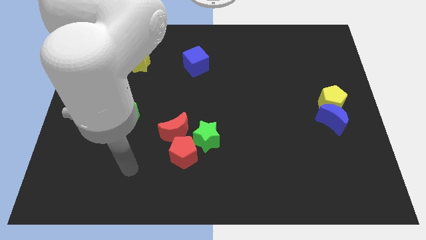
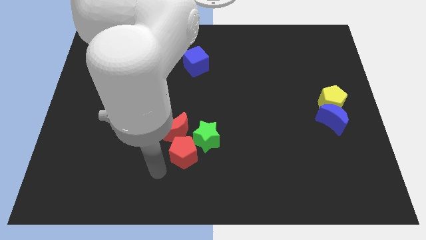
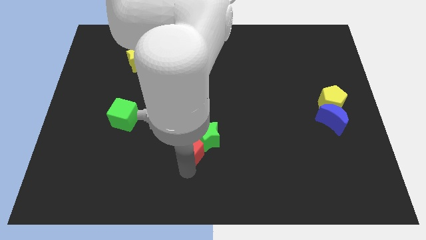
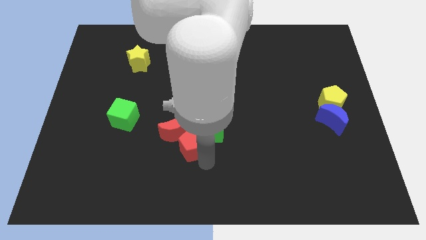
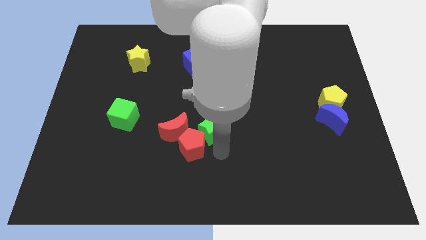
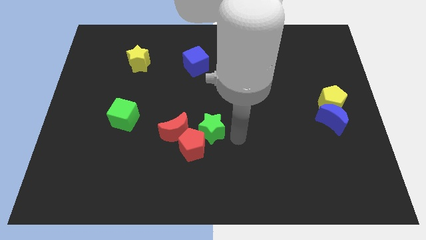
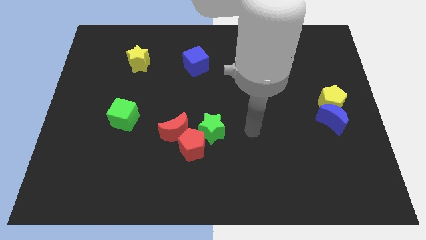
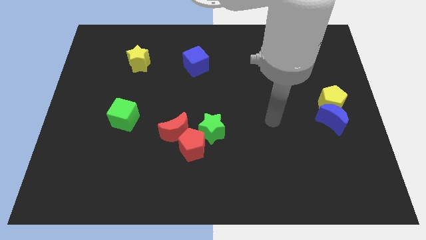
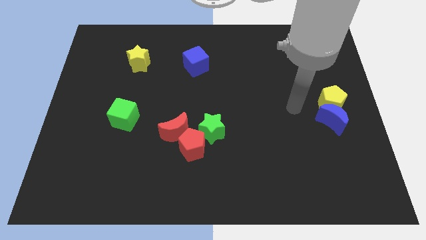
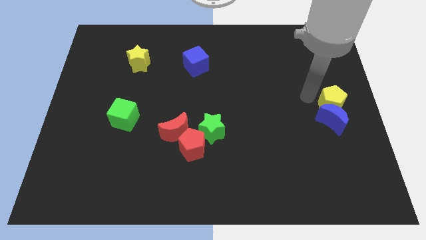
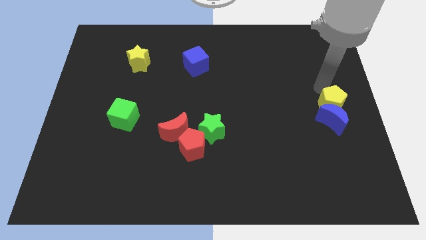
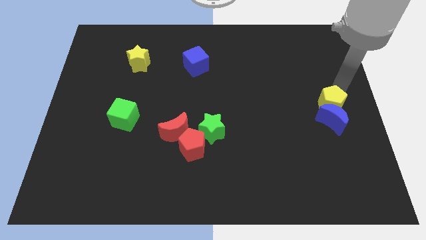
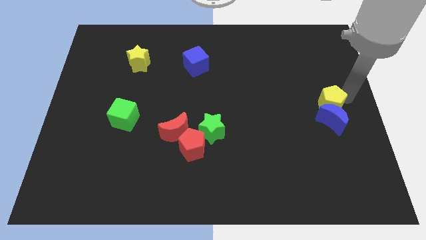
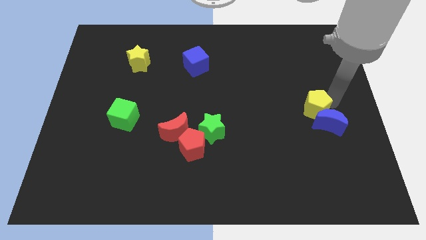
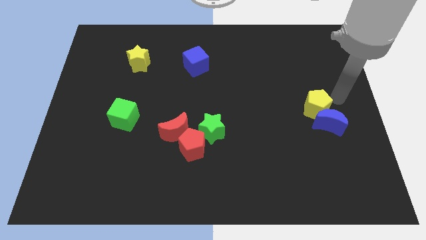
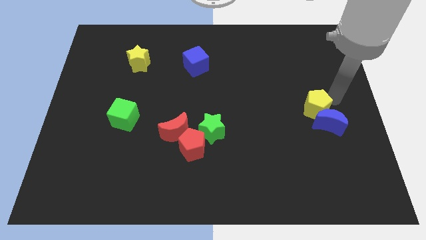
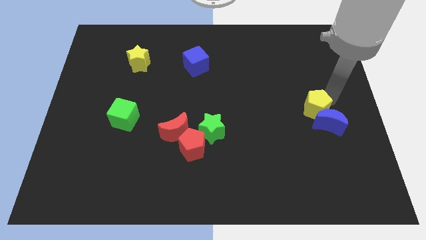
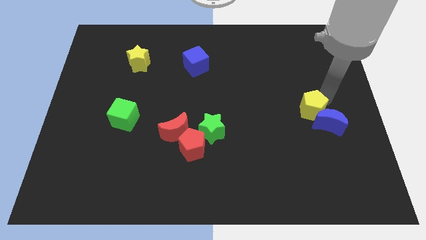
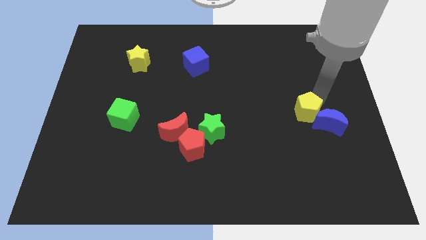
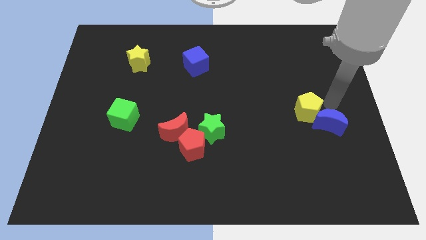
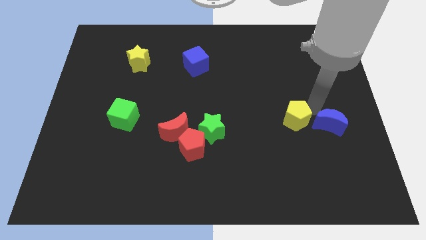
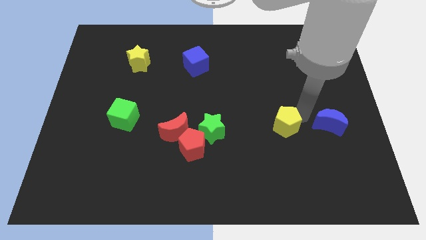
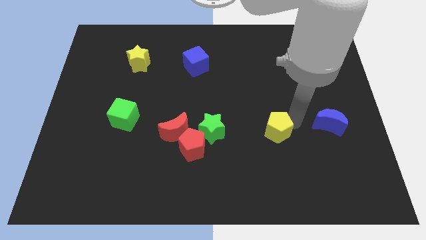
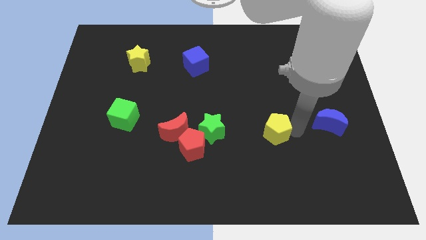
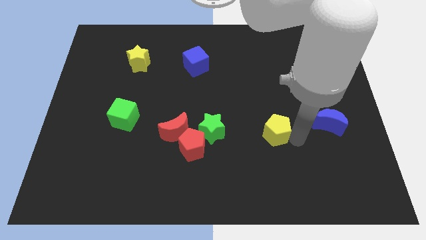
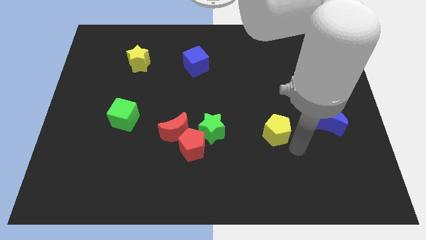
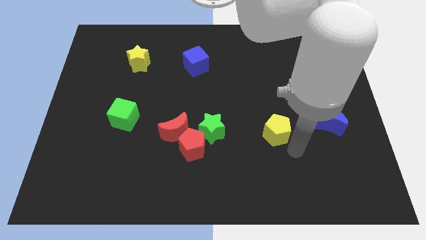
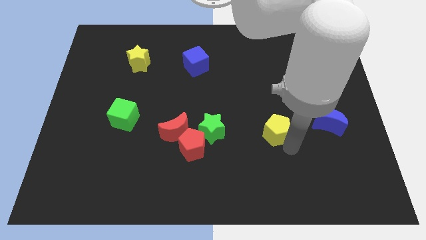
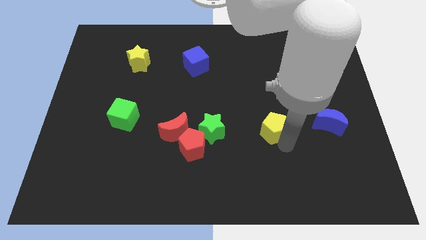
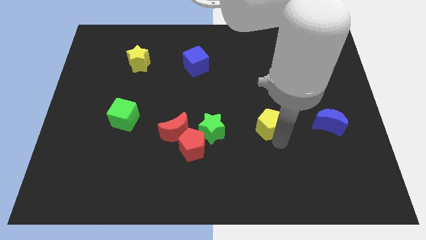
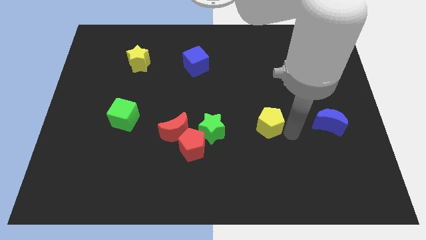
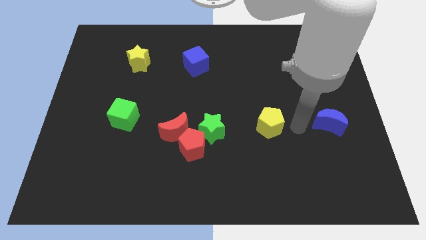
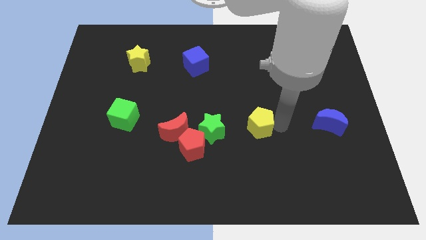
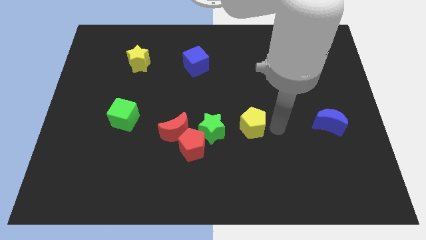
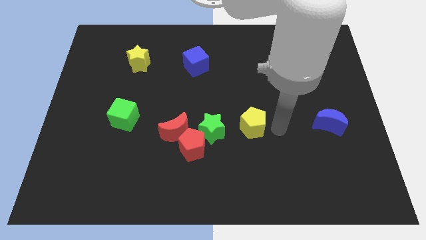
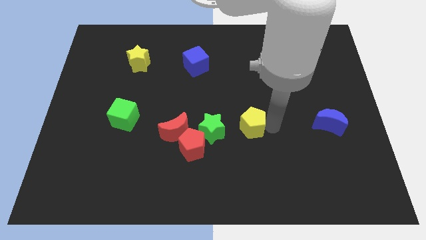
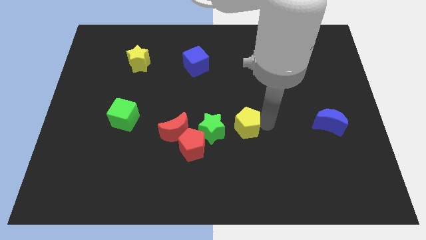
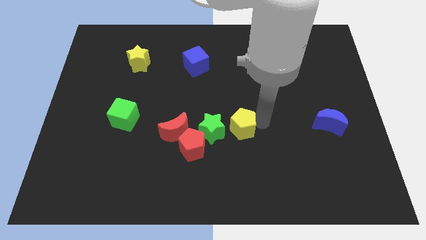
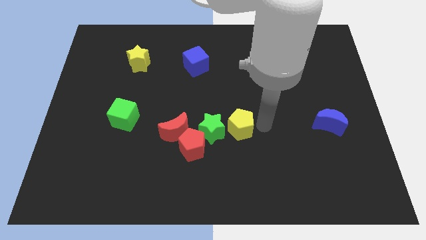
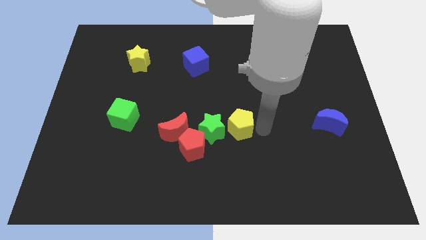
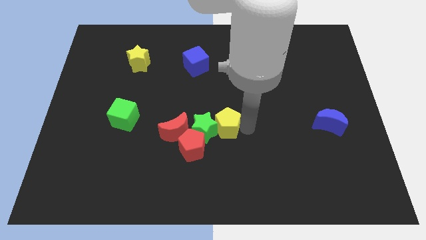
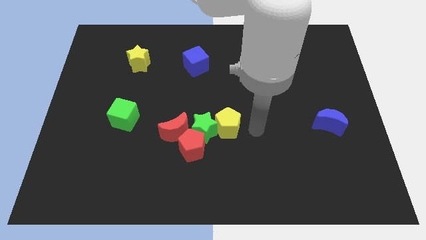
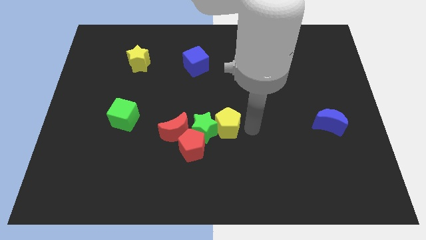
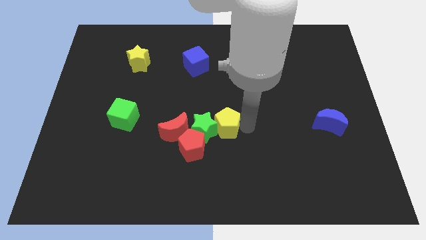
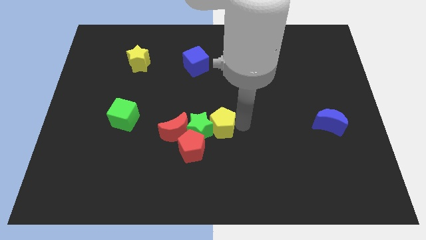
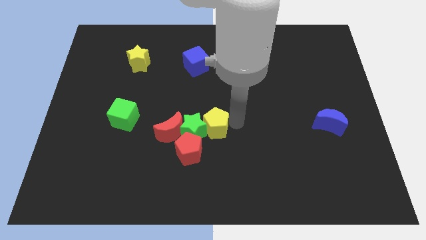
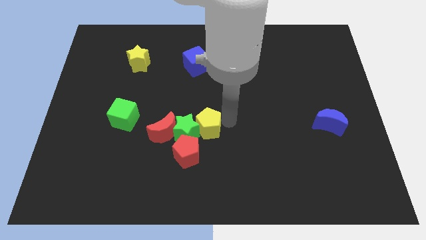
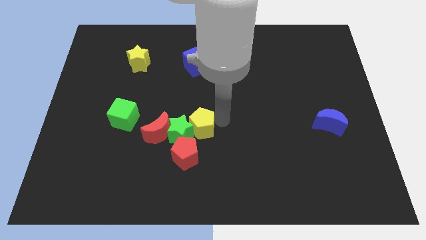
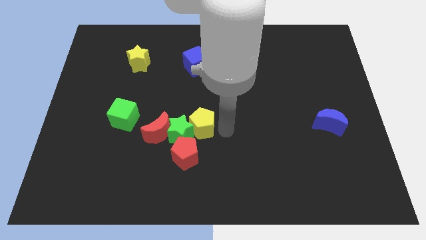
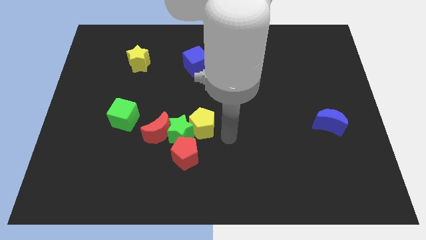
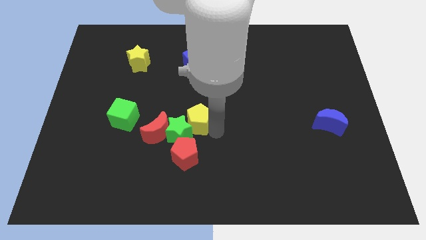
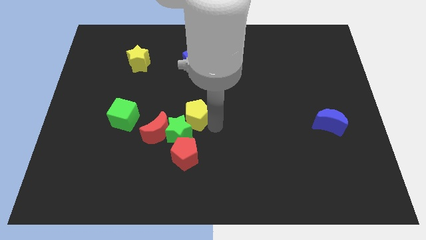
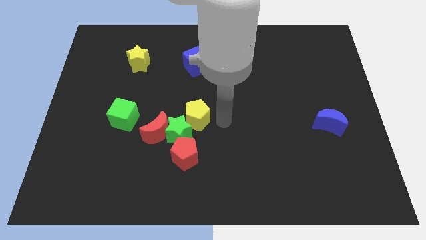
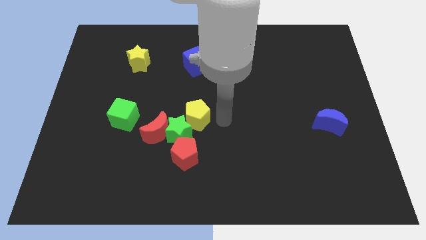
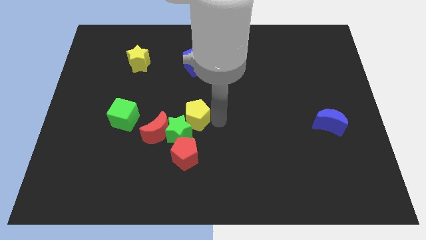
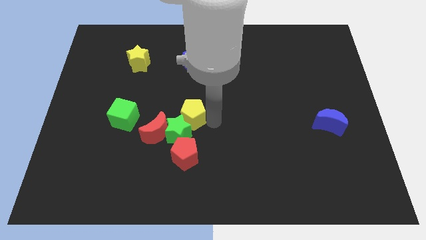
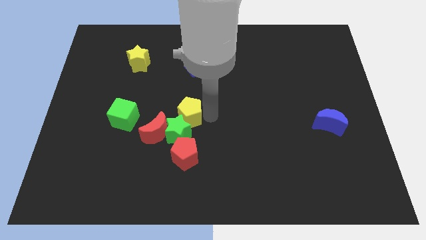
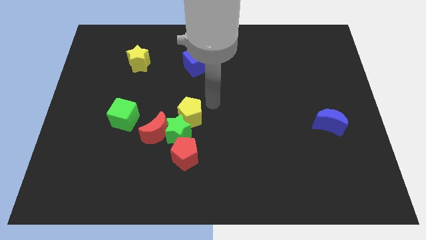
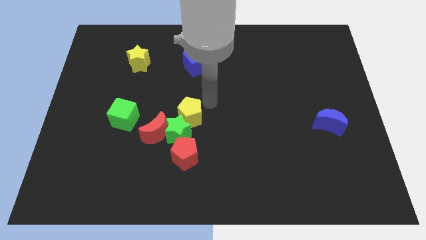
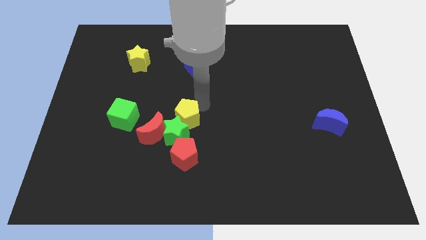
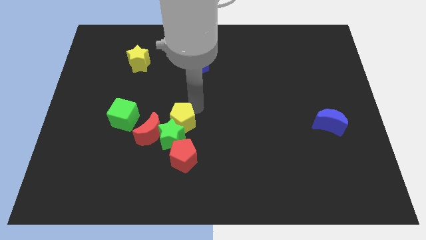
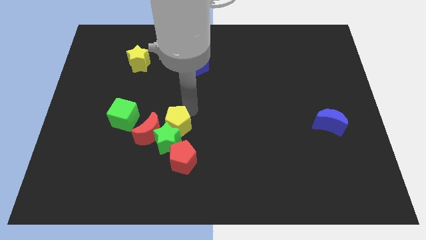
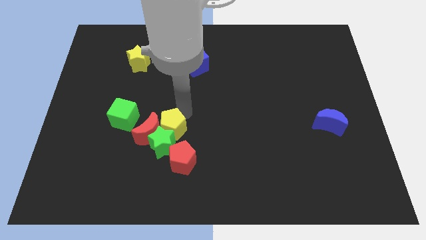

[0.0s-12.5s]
move the yellow pentagon diagonally up and to the left of the red pentagon
